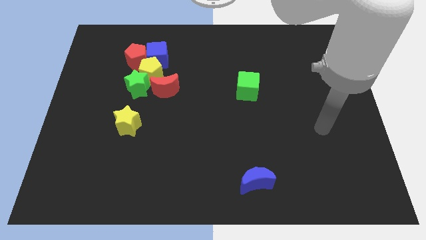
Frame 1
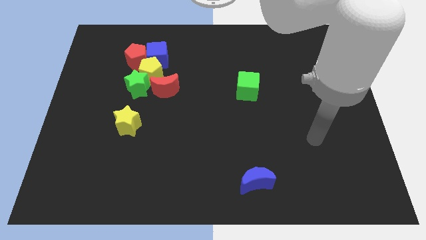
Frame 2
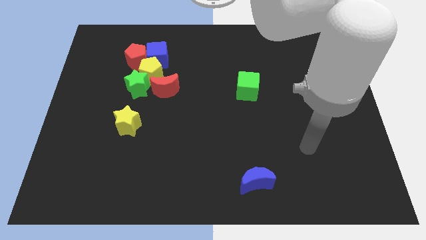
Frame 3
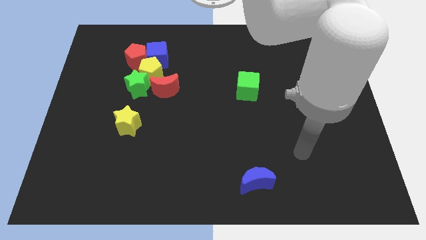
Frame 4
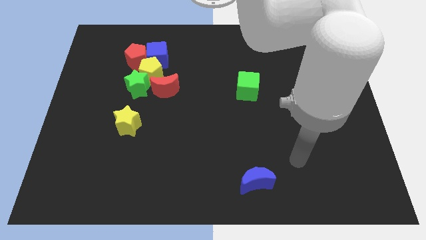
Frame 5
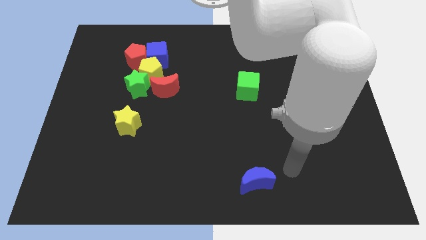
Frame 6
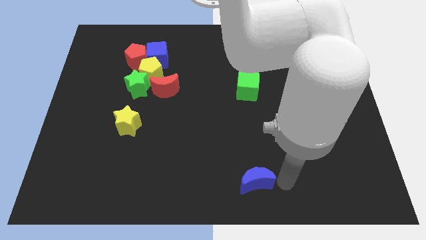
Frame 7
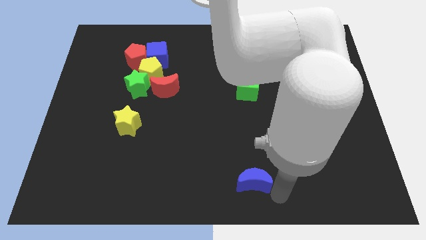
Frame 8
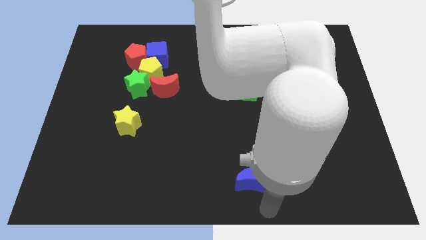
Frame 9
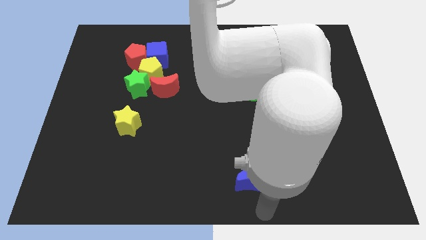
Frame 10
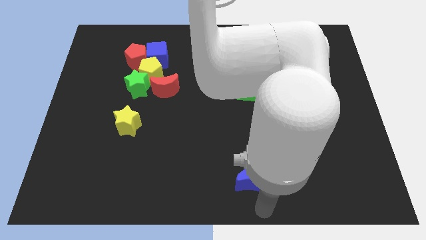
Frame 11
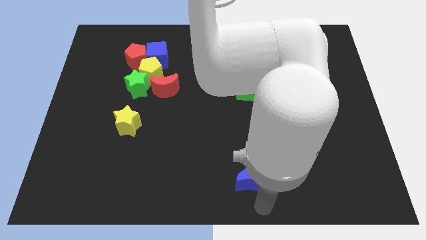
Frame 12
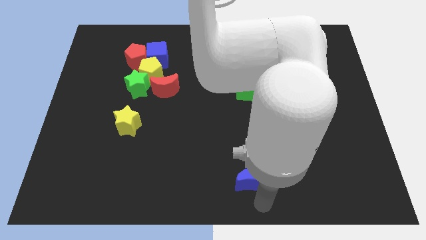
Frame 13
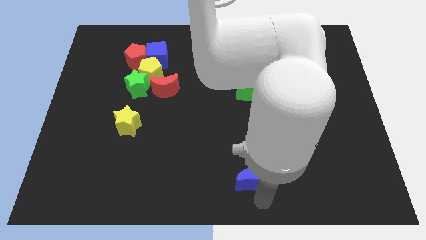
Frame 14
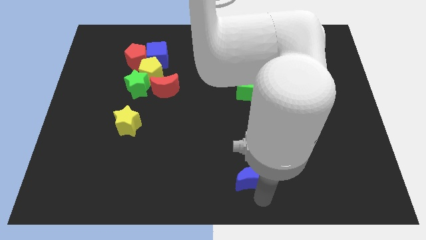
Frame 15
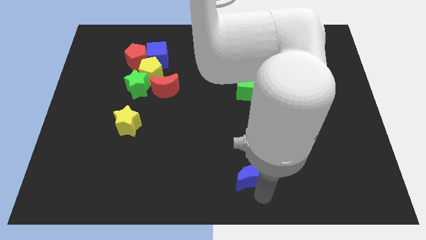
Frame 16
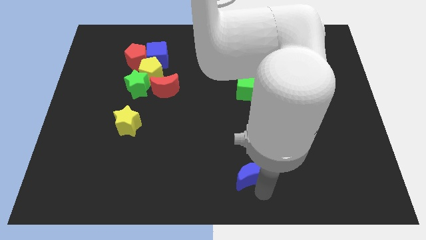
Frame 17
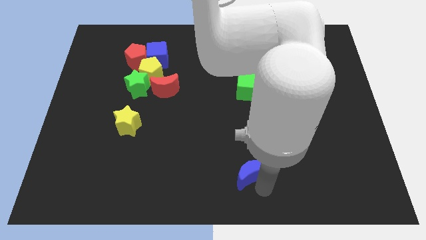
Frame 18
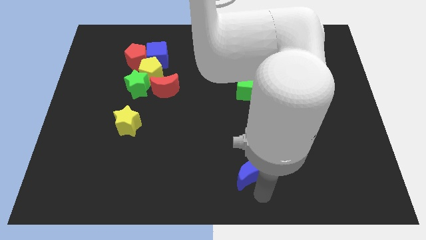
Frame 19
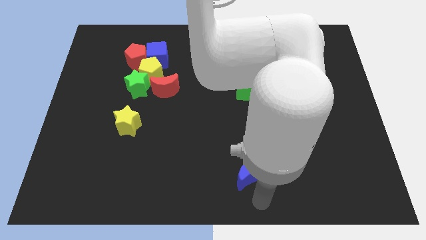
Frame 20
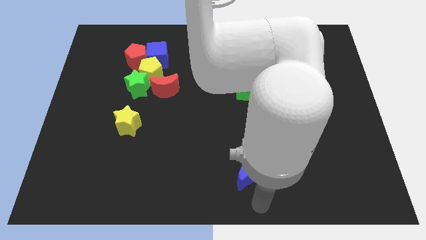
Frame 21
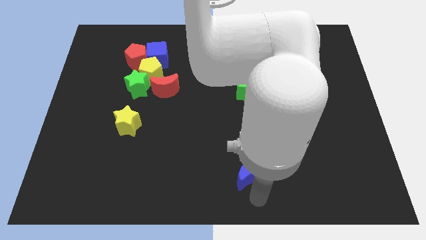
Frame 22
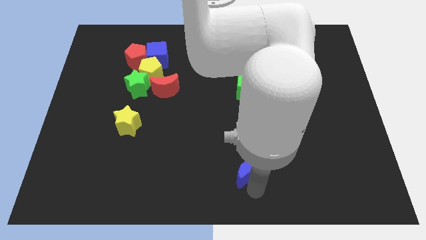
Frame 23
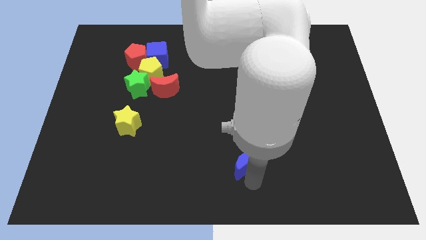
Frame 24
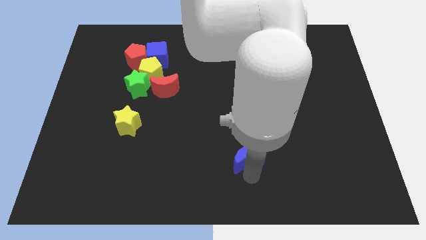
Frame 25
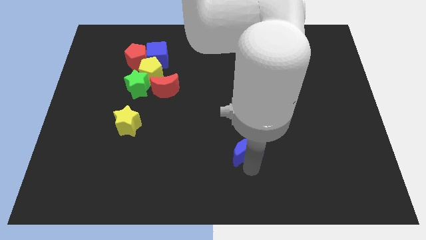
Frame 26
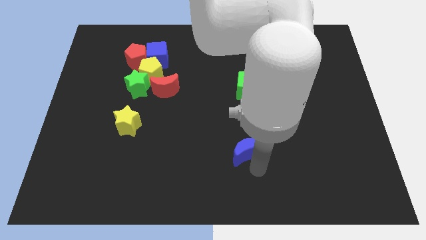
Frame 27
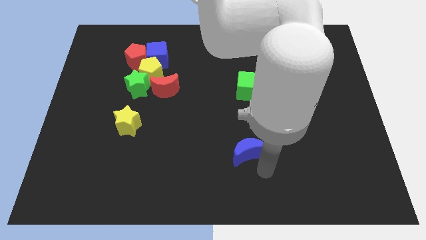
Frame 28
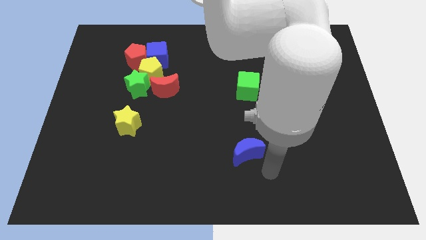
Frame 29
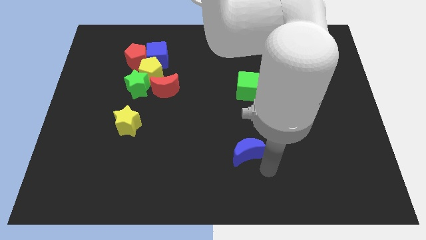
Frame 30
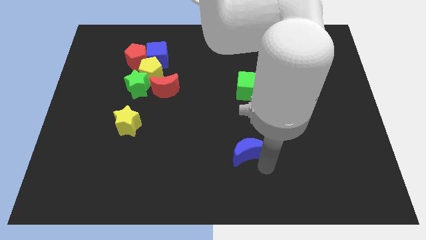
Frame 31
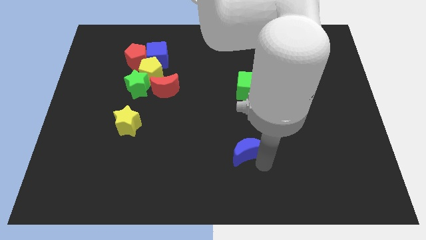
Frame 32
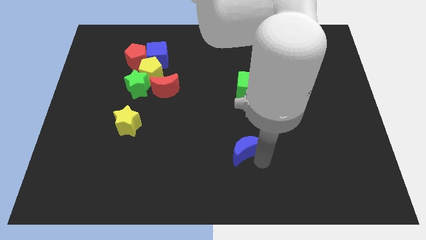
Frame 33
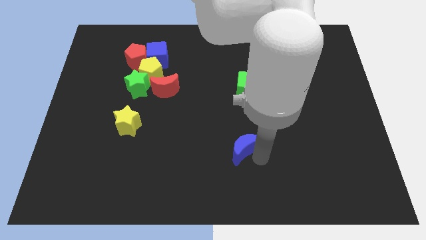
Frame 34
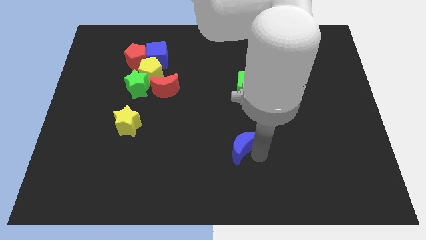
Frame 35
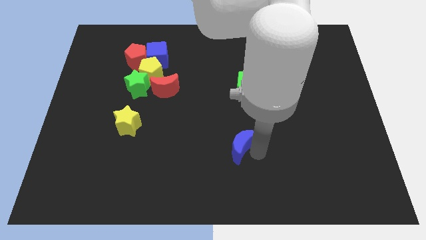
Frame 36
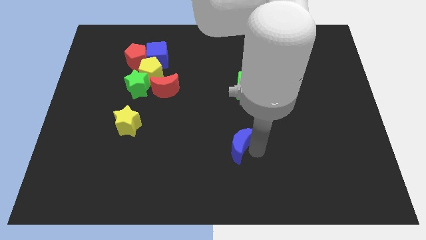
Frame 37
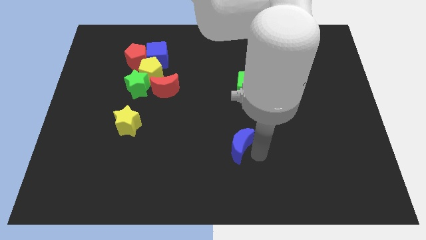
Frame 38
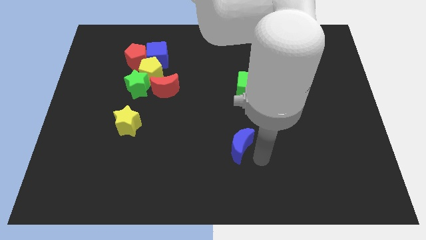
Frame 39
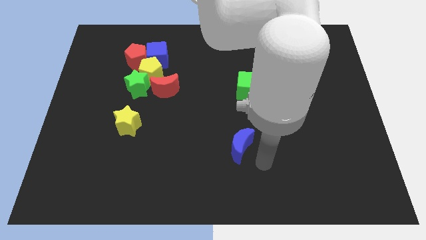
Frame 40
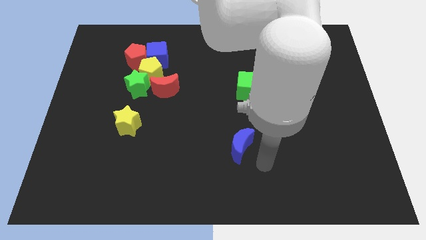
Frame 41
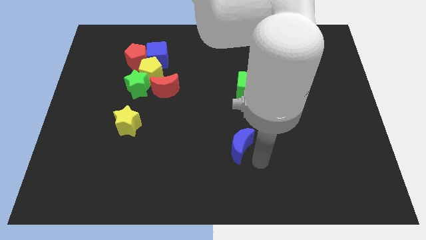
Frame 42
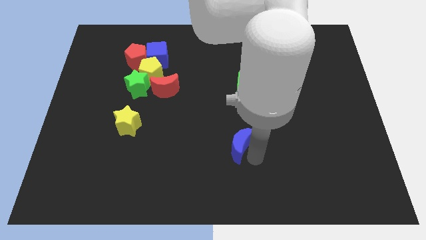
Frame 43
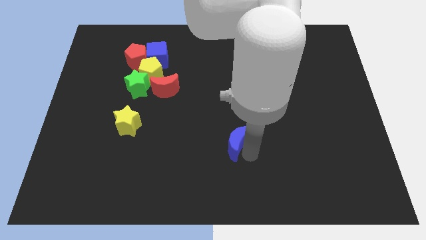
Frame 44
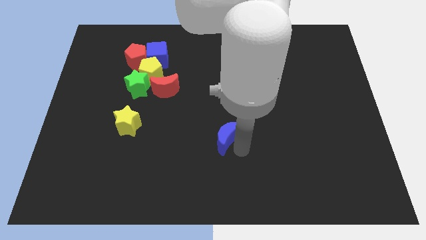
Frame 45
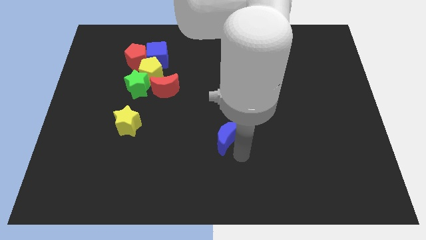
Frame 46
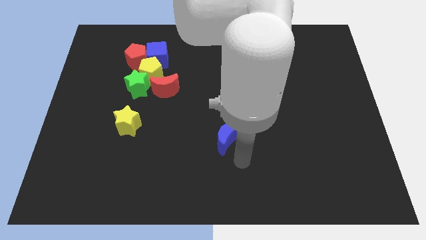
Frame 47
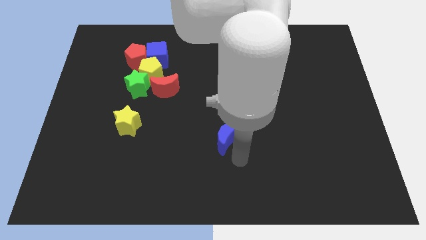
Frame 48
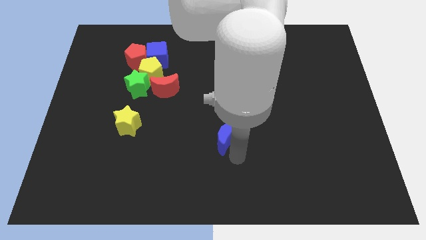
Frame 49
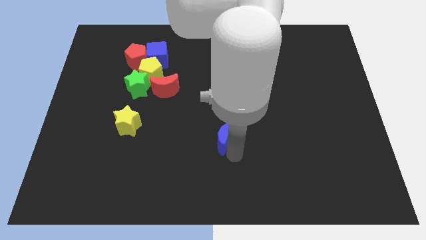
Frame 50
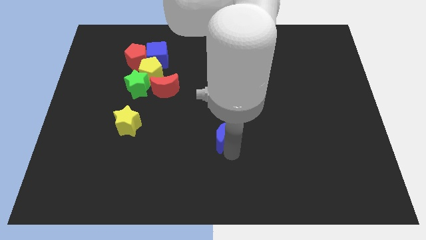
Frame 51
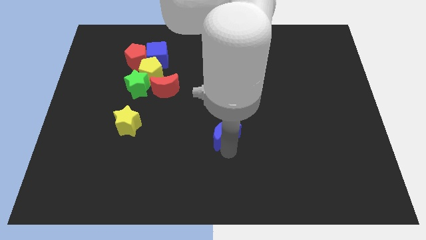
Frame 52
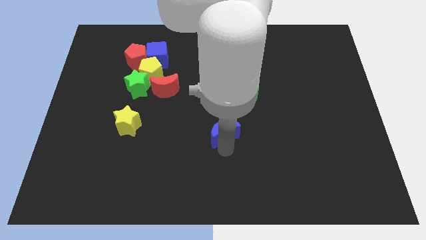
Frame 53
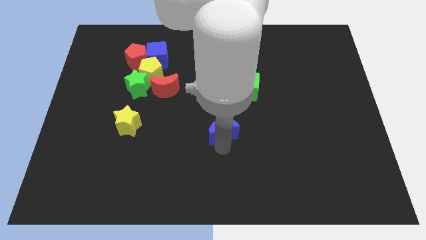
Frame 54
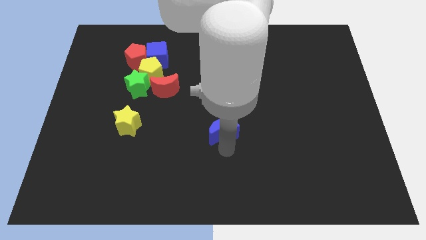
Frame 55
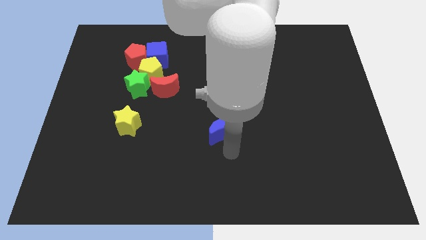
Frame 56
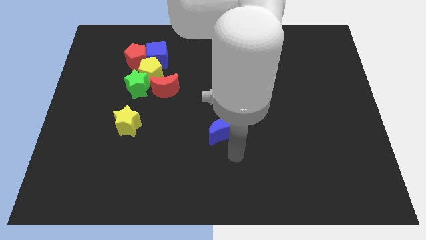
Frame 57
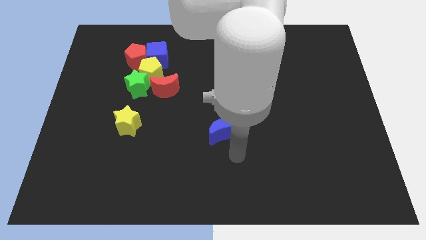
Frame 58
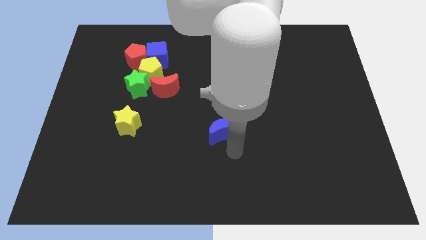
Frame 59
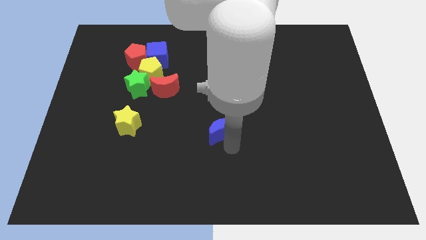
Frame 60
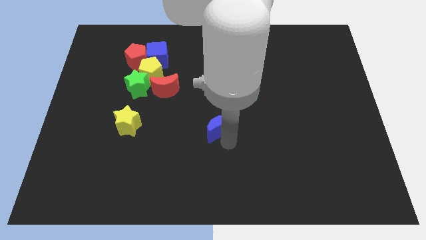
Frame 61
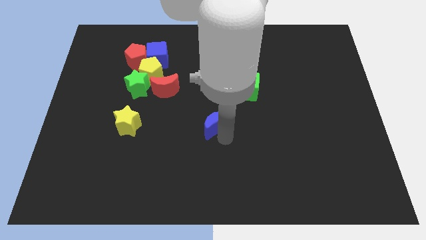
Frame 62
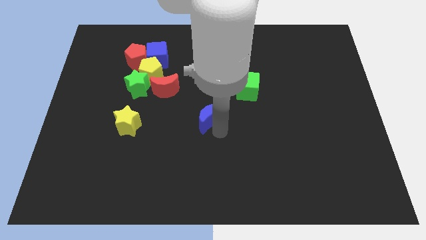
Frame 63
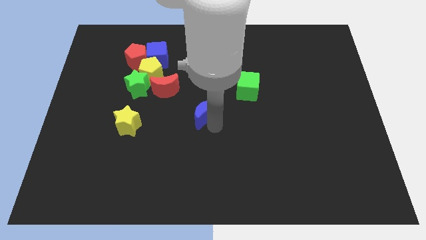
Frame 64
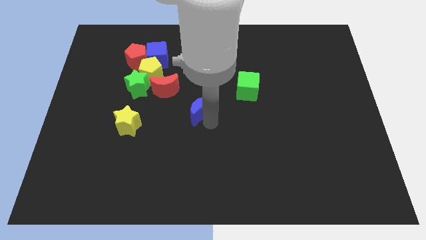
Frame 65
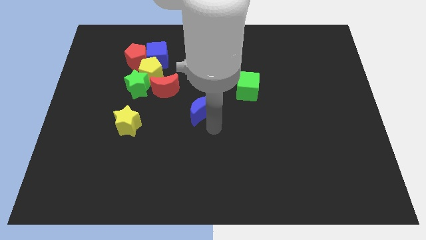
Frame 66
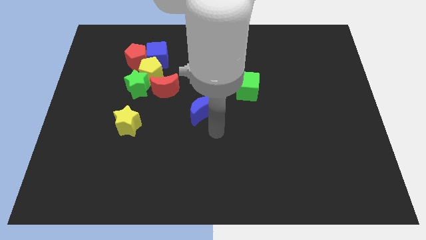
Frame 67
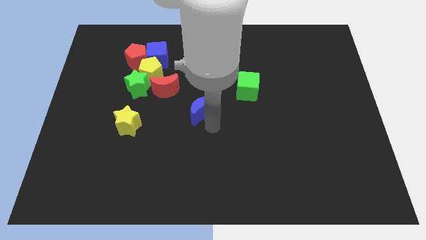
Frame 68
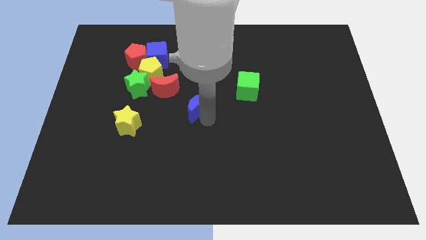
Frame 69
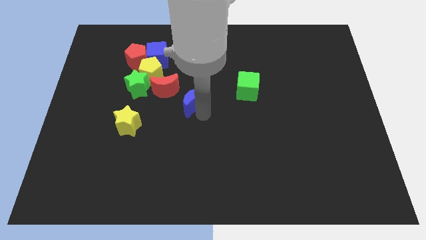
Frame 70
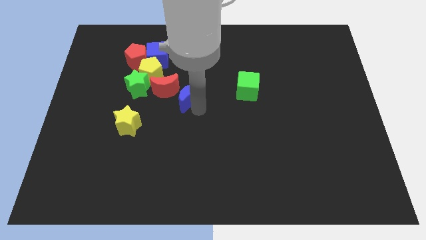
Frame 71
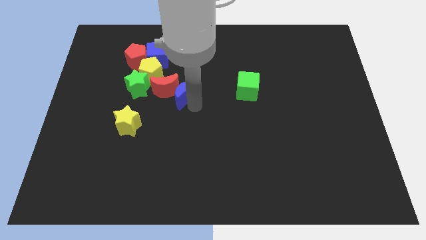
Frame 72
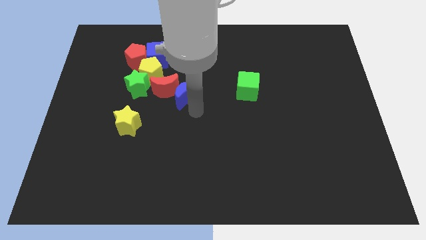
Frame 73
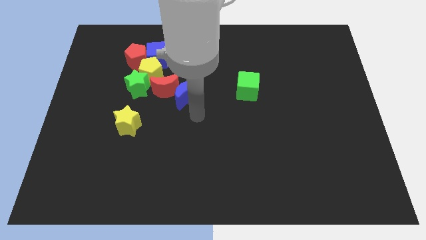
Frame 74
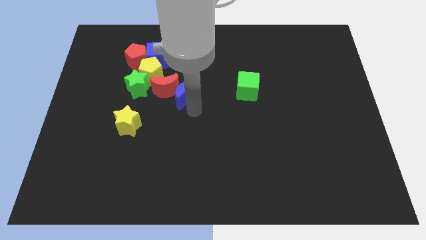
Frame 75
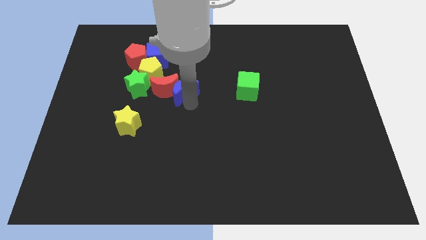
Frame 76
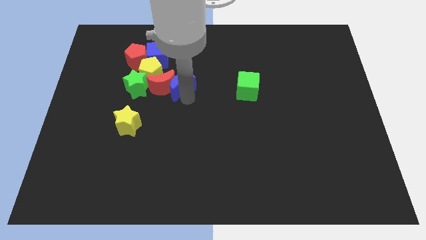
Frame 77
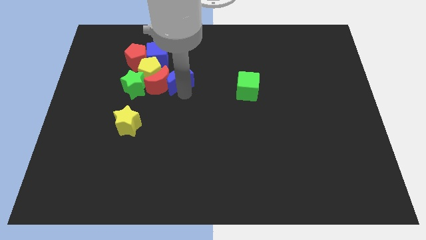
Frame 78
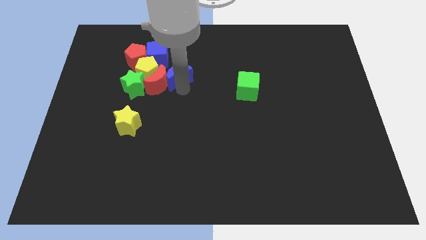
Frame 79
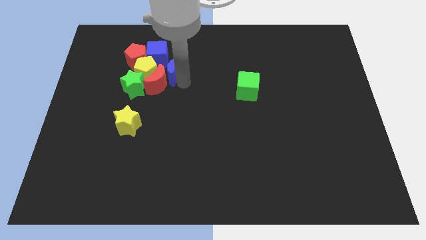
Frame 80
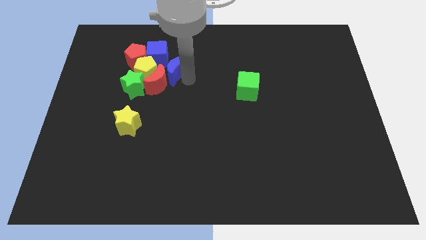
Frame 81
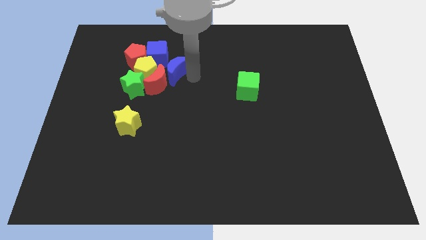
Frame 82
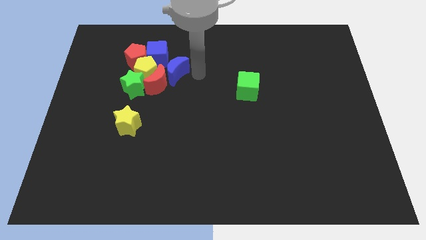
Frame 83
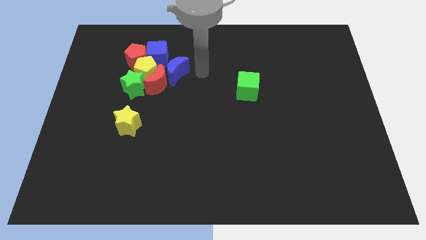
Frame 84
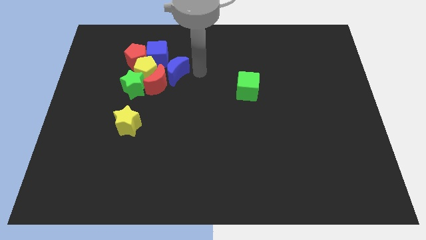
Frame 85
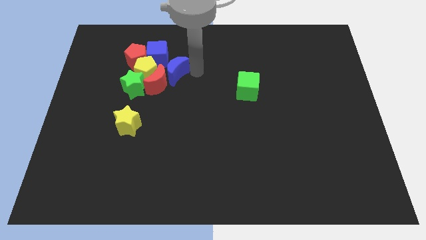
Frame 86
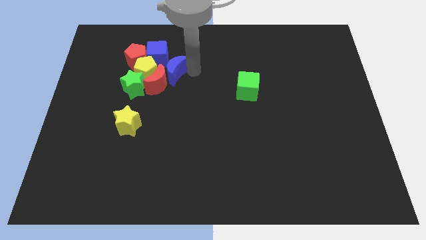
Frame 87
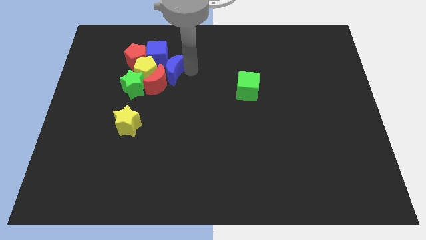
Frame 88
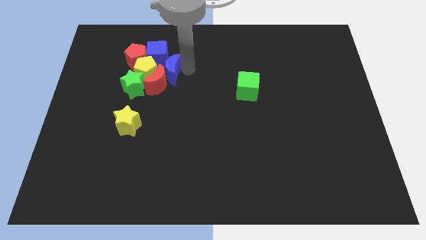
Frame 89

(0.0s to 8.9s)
move the blue moon to the yellow pentagon
